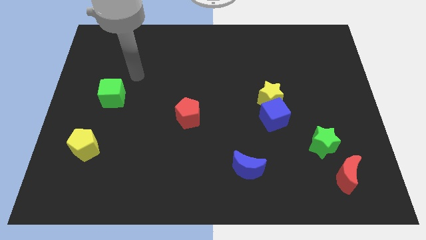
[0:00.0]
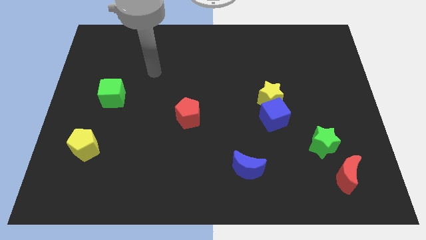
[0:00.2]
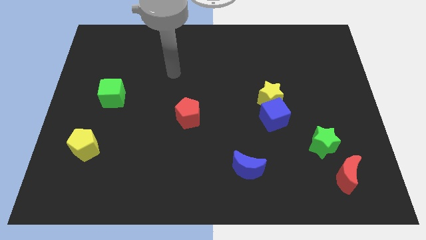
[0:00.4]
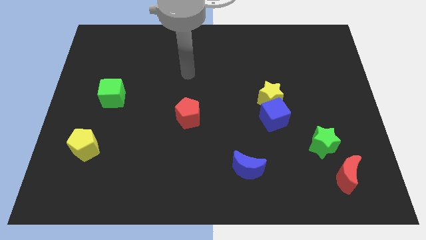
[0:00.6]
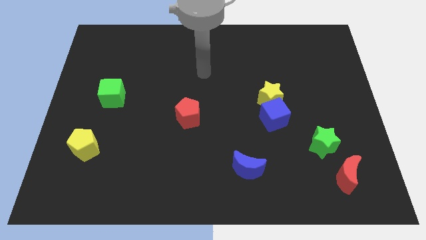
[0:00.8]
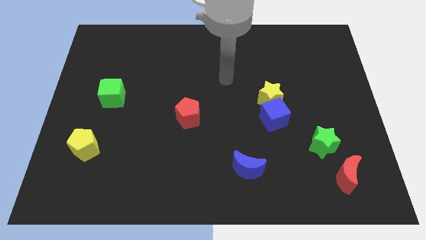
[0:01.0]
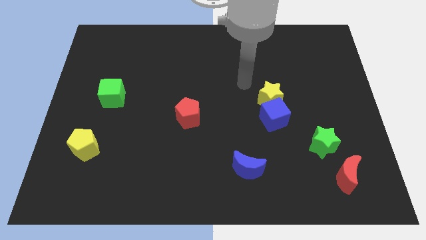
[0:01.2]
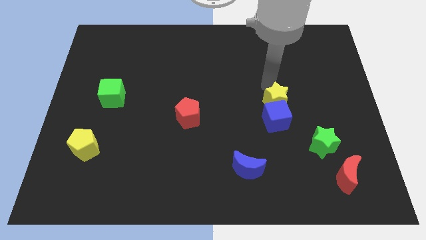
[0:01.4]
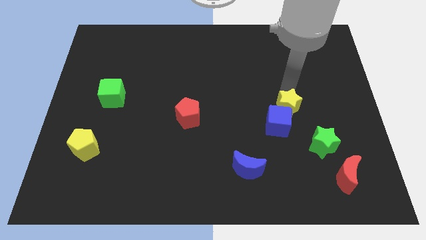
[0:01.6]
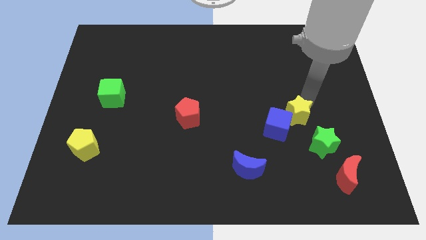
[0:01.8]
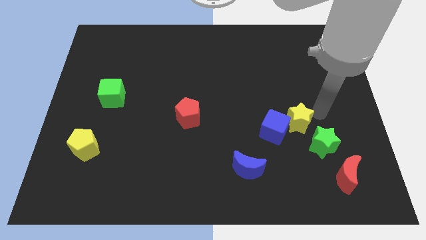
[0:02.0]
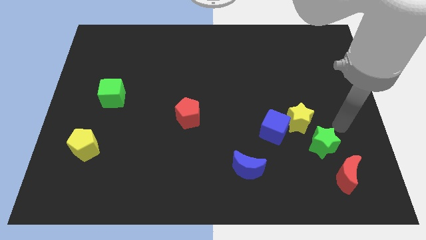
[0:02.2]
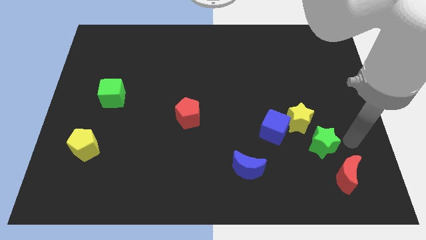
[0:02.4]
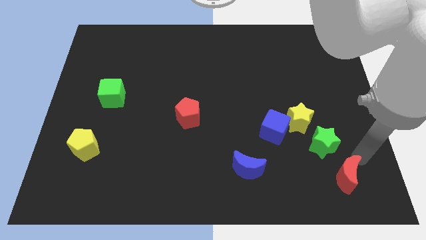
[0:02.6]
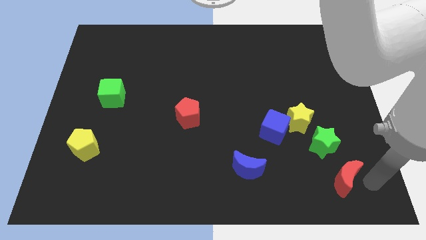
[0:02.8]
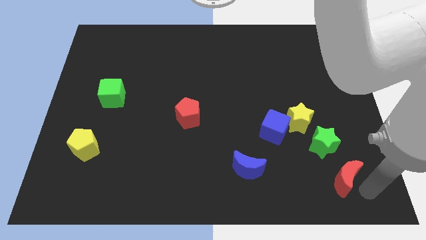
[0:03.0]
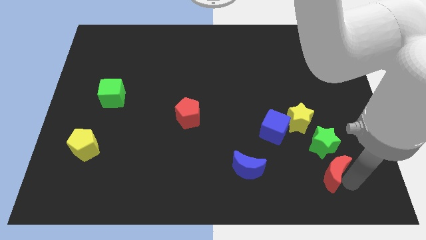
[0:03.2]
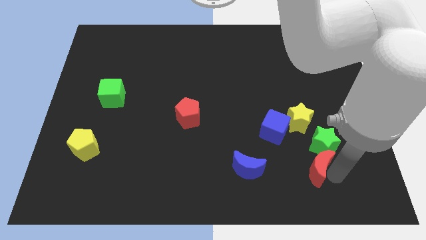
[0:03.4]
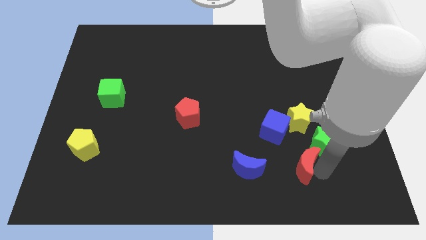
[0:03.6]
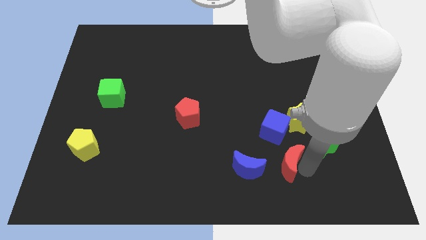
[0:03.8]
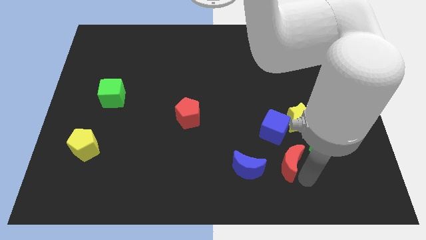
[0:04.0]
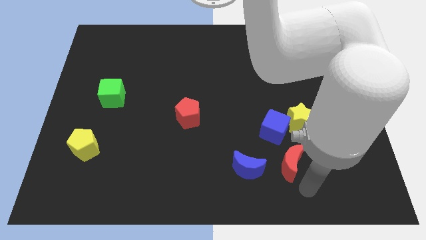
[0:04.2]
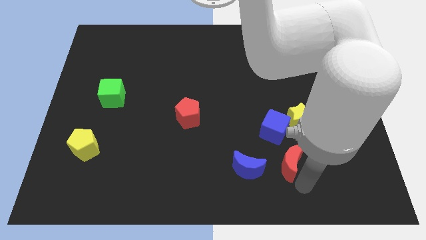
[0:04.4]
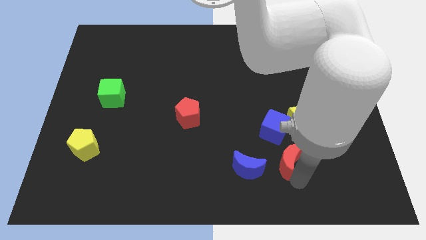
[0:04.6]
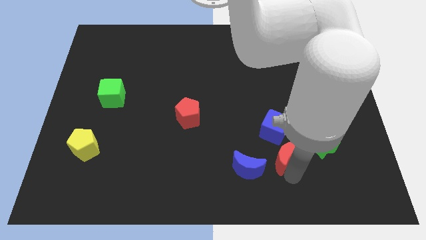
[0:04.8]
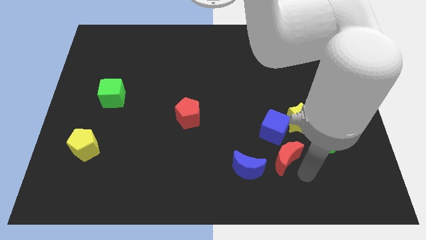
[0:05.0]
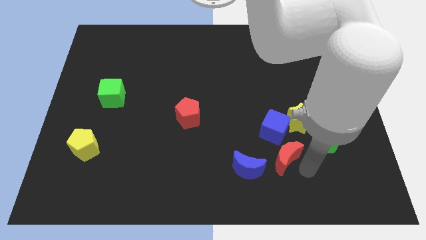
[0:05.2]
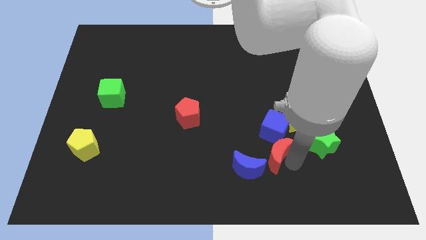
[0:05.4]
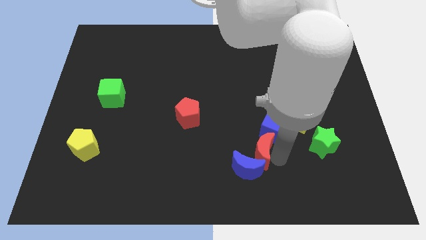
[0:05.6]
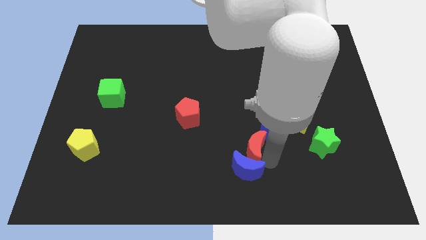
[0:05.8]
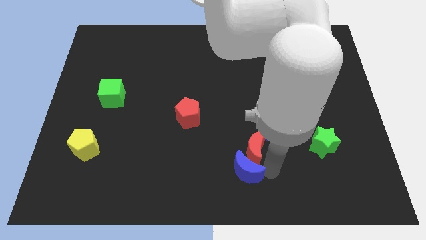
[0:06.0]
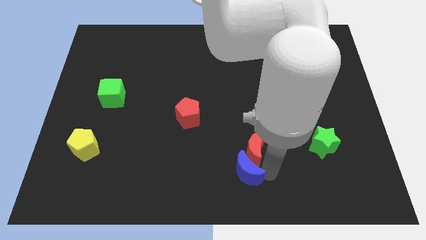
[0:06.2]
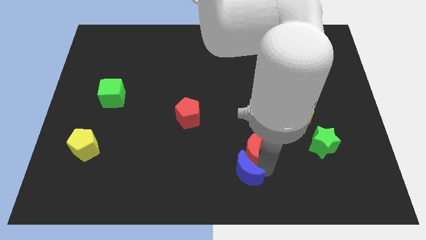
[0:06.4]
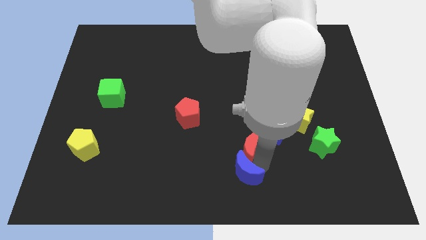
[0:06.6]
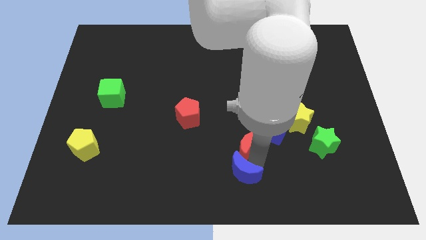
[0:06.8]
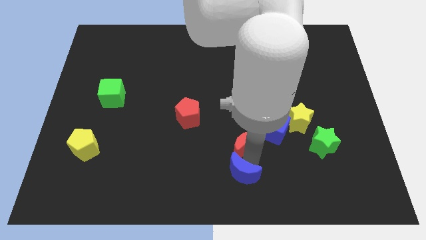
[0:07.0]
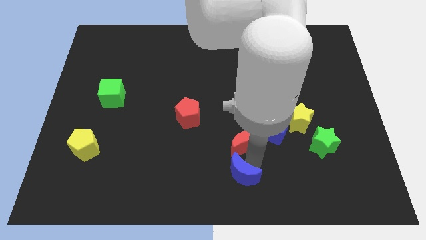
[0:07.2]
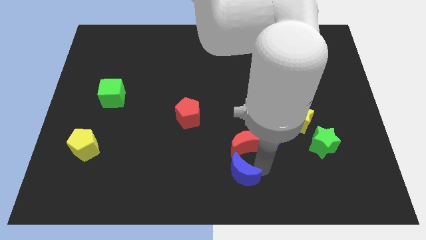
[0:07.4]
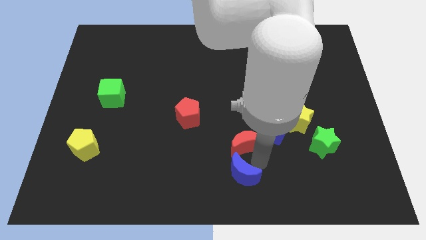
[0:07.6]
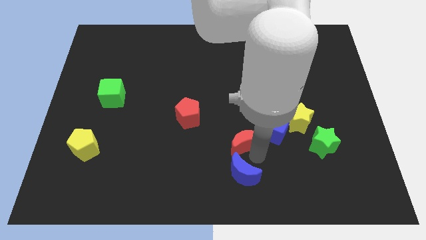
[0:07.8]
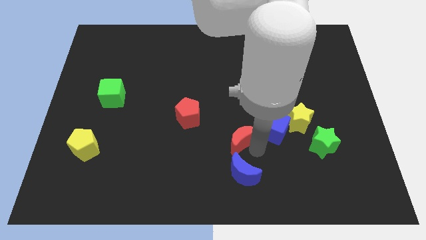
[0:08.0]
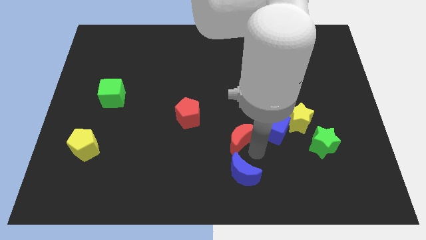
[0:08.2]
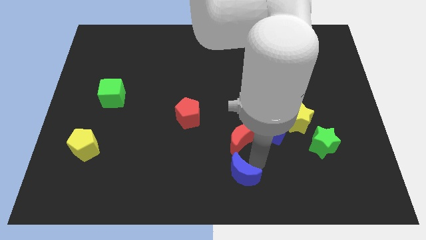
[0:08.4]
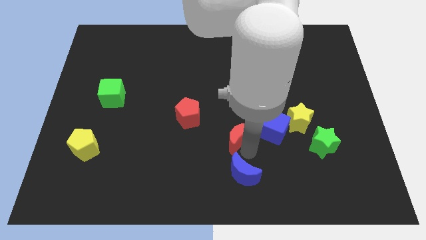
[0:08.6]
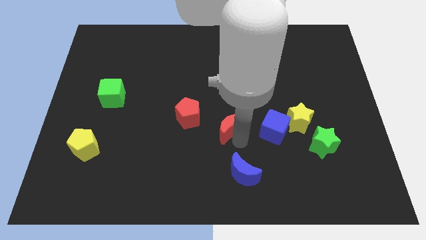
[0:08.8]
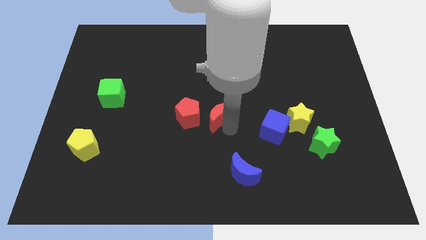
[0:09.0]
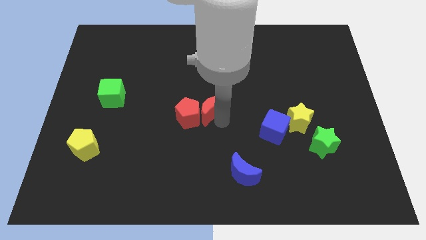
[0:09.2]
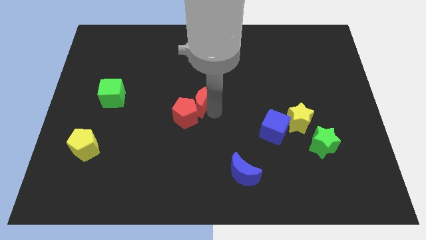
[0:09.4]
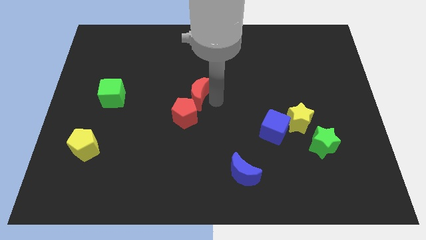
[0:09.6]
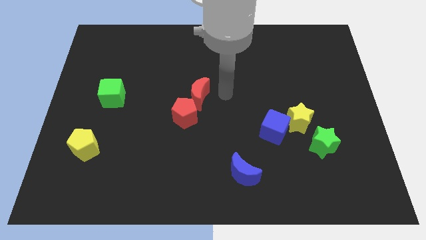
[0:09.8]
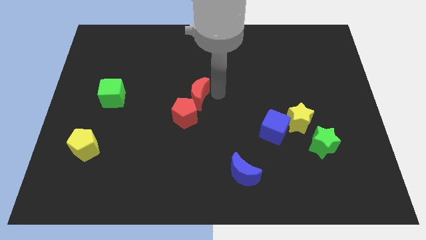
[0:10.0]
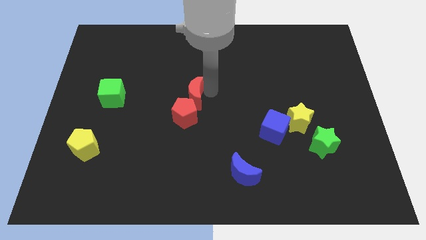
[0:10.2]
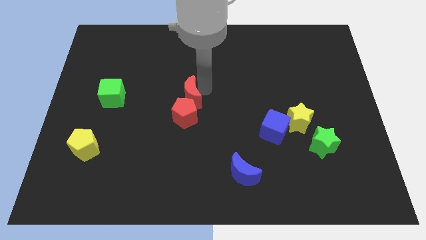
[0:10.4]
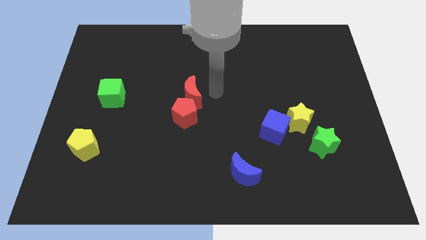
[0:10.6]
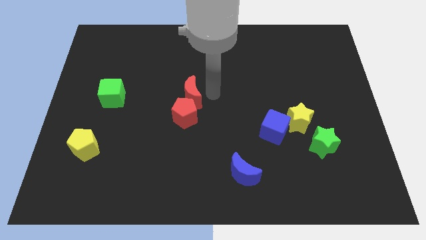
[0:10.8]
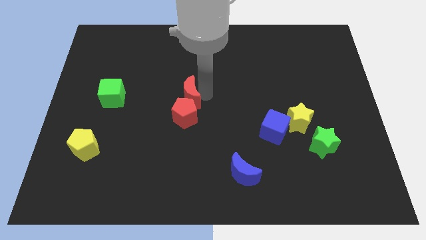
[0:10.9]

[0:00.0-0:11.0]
push the red moon diagonally up and to the left of the red pentagon

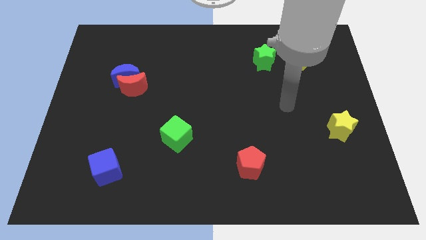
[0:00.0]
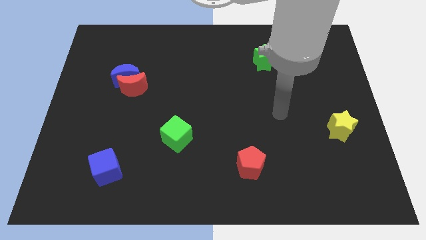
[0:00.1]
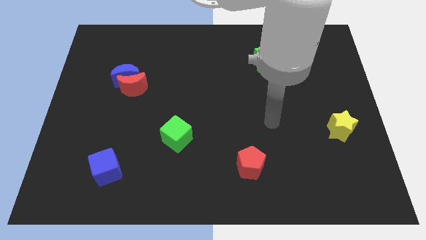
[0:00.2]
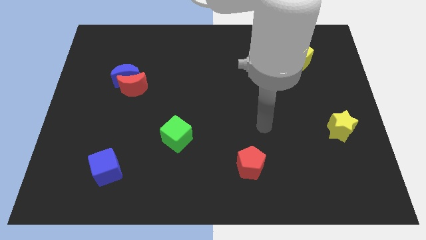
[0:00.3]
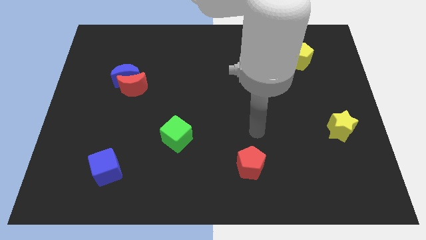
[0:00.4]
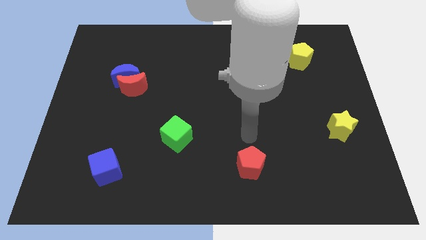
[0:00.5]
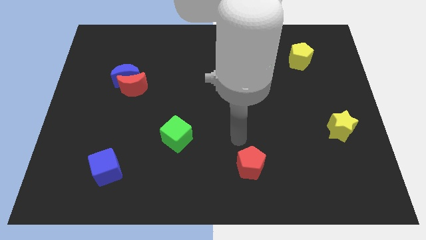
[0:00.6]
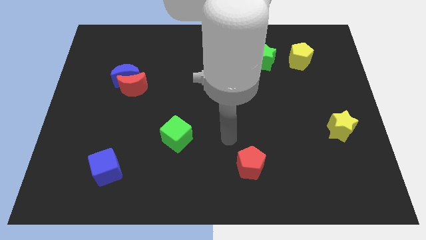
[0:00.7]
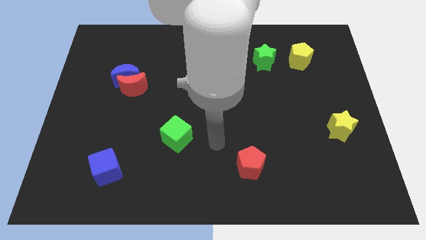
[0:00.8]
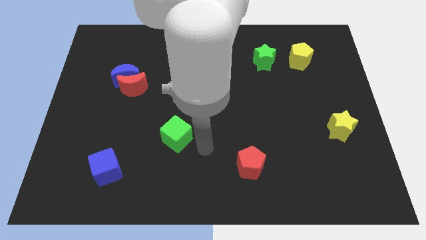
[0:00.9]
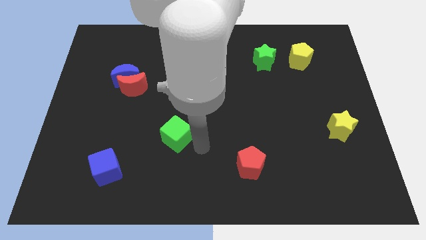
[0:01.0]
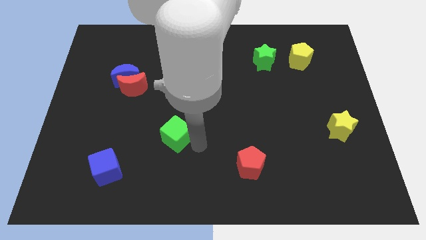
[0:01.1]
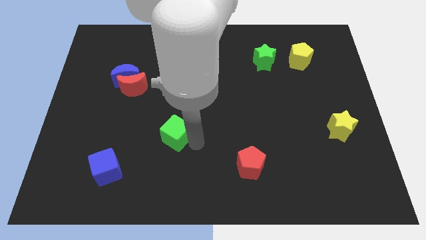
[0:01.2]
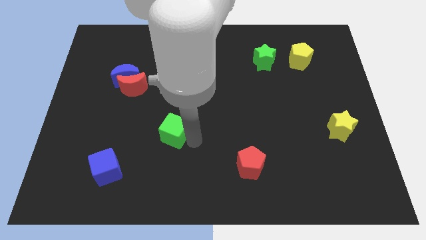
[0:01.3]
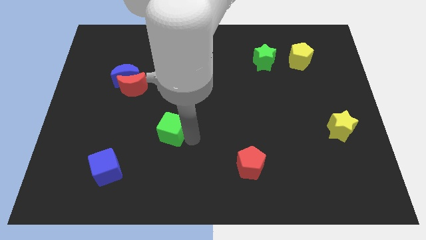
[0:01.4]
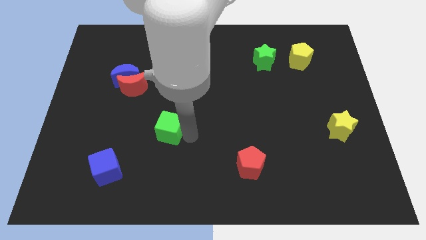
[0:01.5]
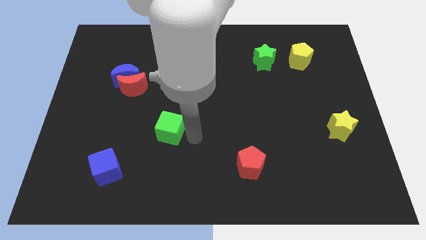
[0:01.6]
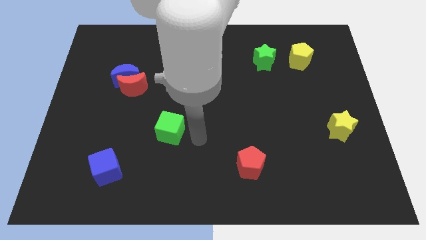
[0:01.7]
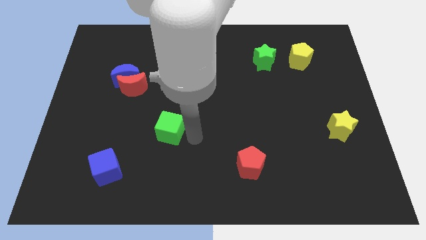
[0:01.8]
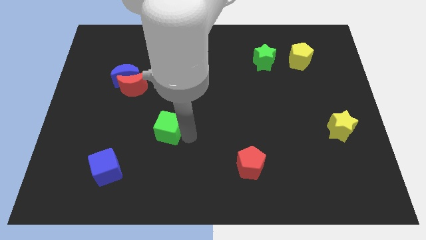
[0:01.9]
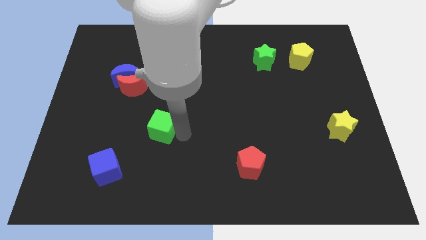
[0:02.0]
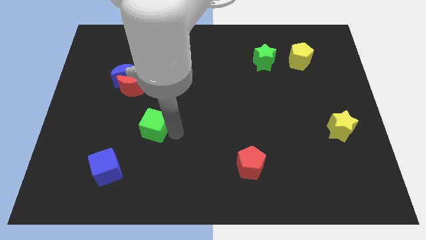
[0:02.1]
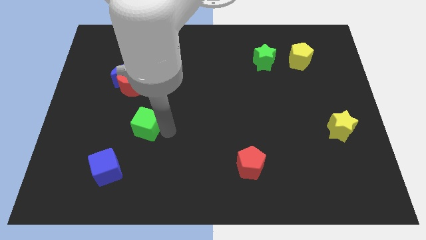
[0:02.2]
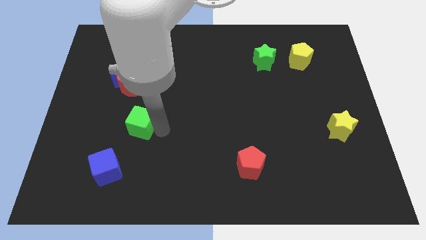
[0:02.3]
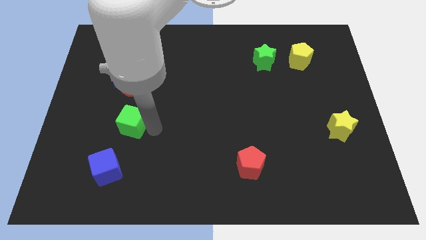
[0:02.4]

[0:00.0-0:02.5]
slide the green cube to the bottom side of the blue moon
